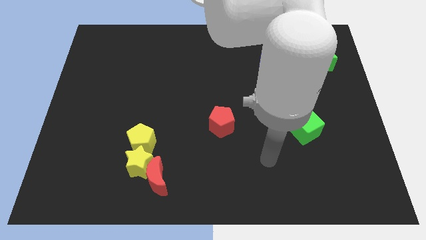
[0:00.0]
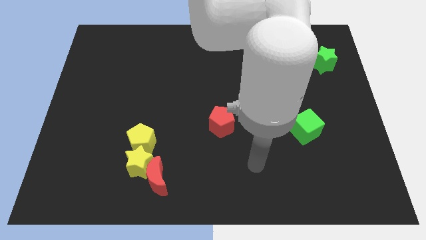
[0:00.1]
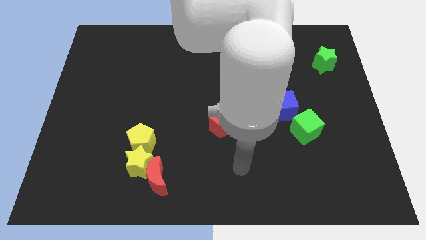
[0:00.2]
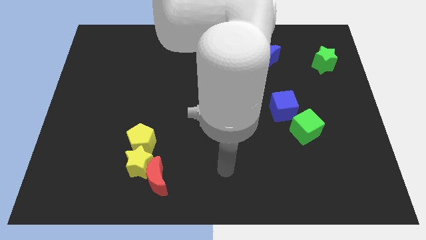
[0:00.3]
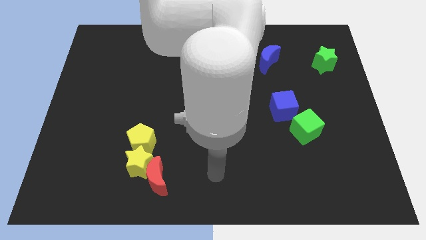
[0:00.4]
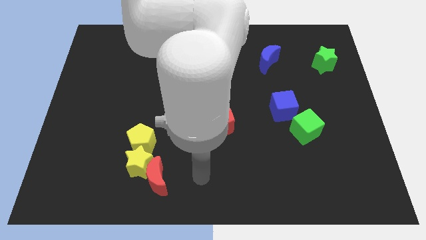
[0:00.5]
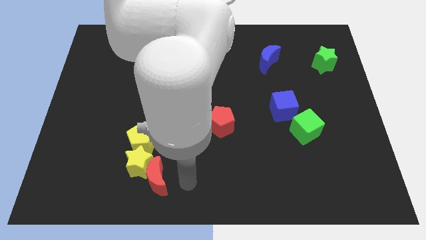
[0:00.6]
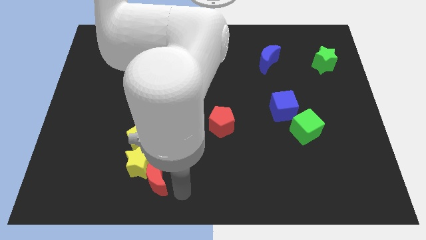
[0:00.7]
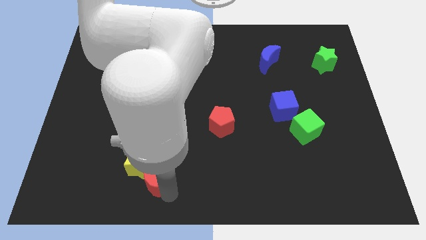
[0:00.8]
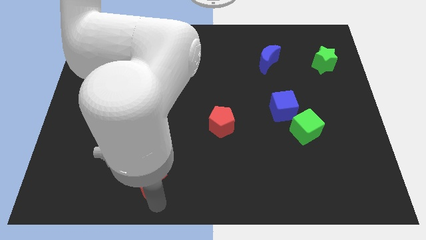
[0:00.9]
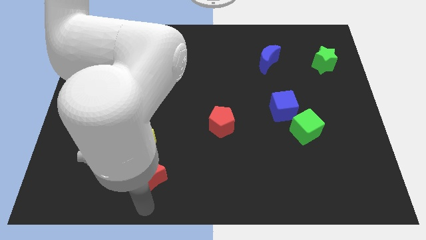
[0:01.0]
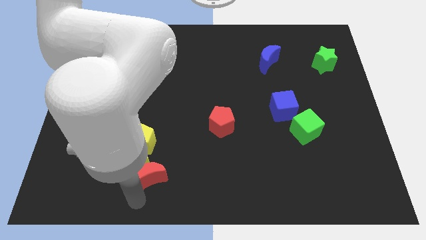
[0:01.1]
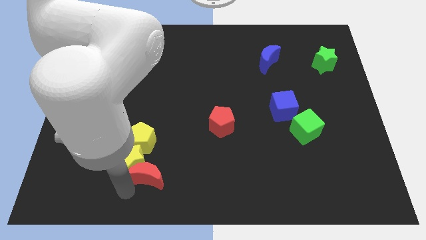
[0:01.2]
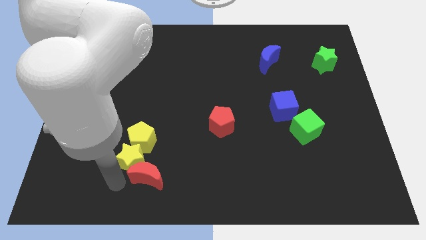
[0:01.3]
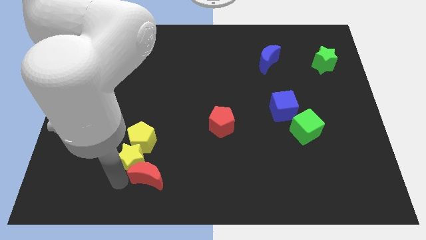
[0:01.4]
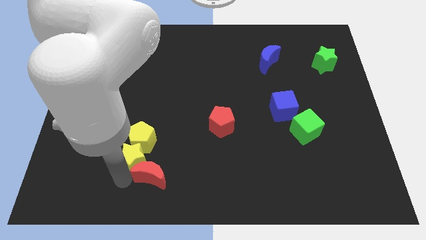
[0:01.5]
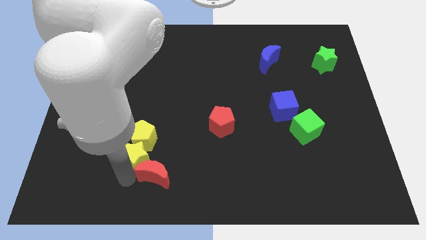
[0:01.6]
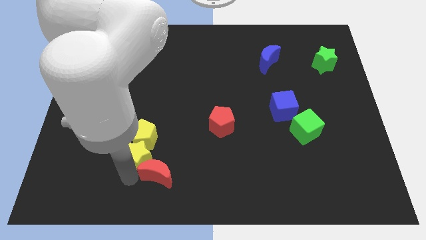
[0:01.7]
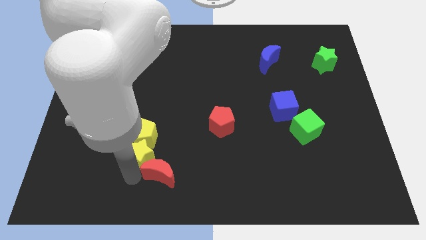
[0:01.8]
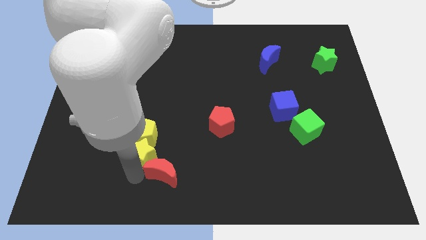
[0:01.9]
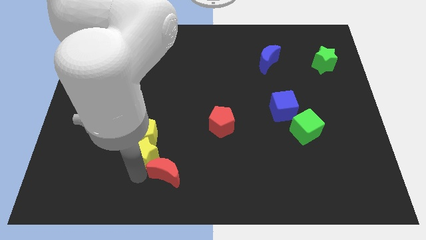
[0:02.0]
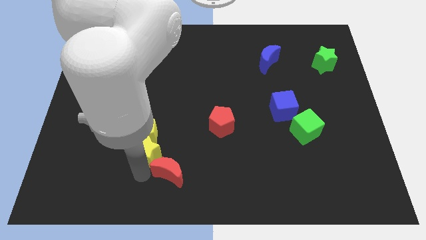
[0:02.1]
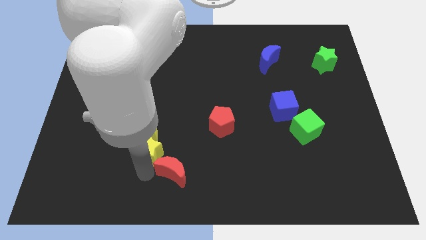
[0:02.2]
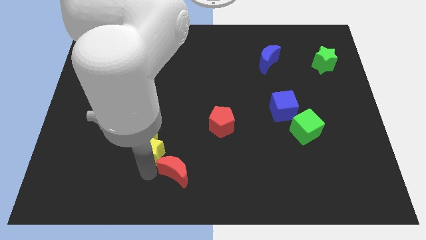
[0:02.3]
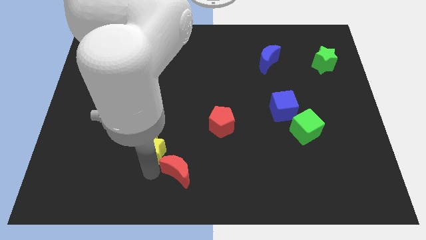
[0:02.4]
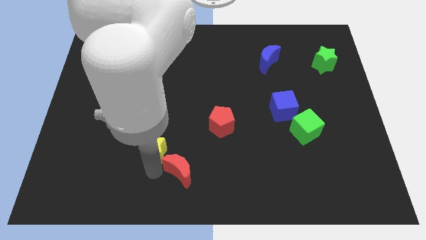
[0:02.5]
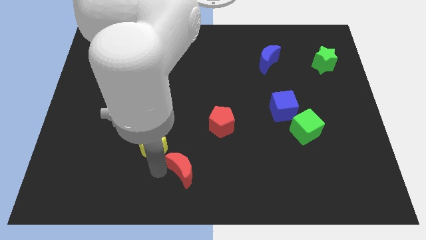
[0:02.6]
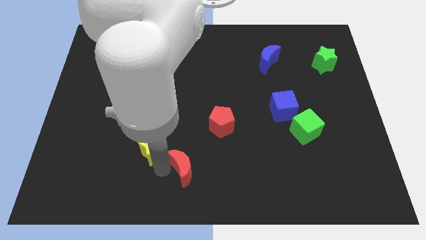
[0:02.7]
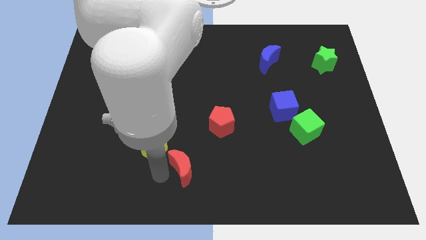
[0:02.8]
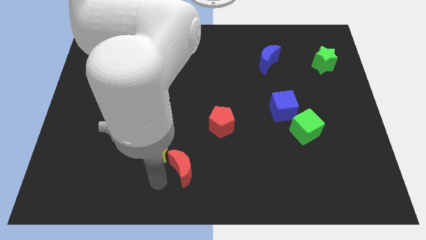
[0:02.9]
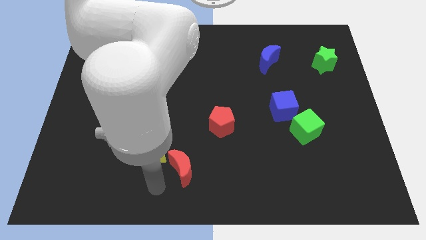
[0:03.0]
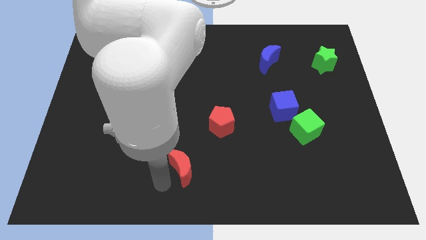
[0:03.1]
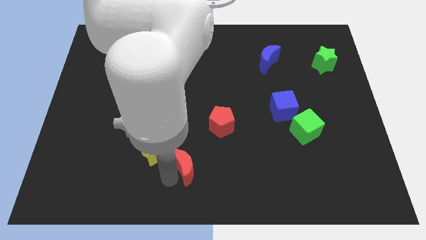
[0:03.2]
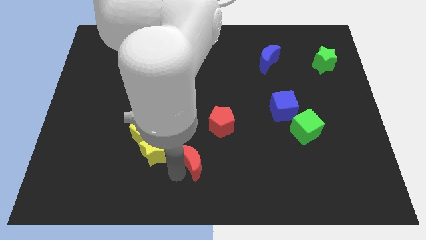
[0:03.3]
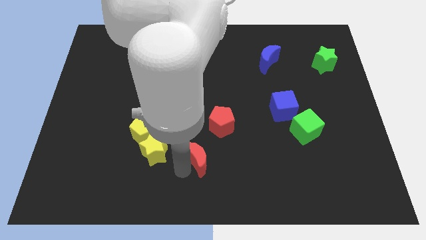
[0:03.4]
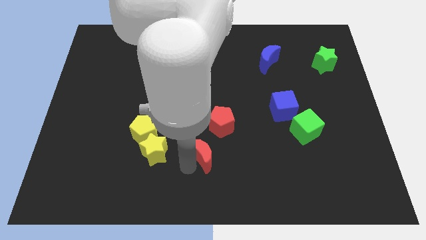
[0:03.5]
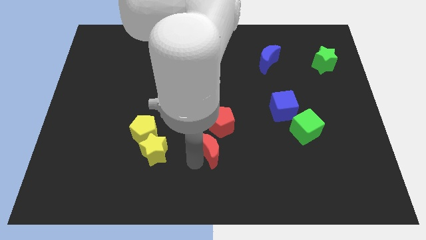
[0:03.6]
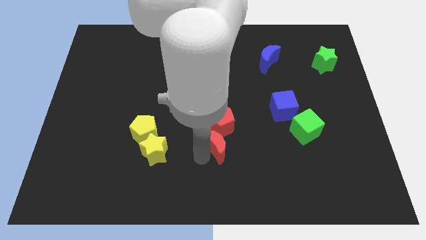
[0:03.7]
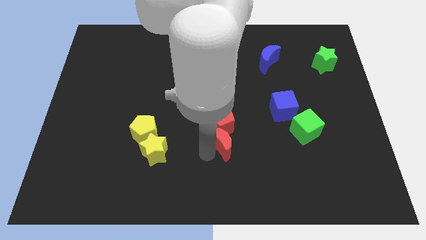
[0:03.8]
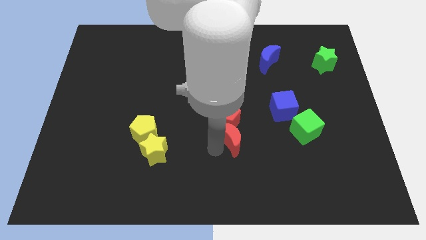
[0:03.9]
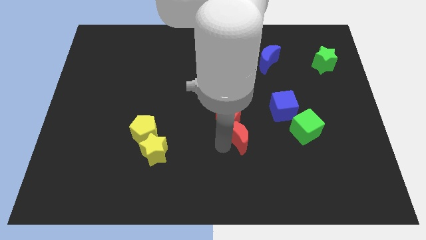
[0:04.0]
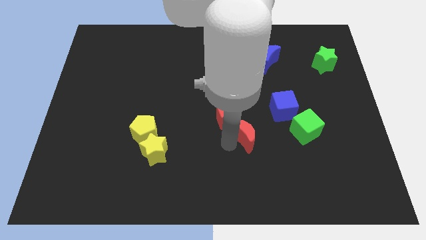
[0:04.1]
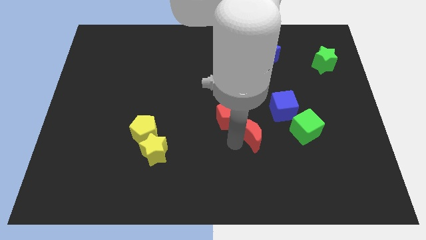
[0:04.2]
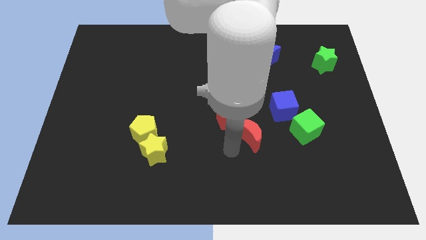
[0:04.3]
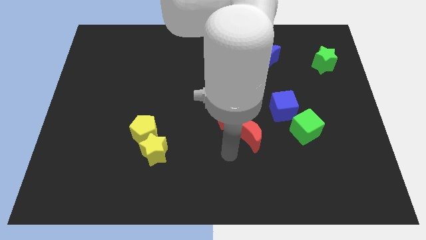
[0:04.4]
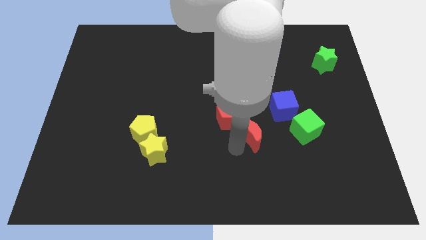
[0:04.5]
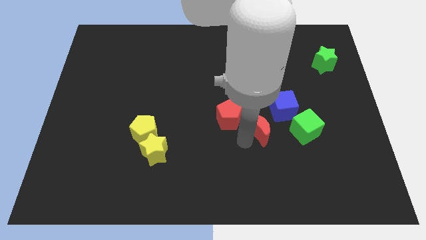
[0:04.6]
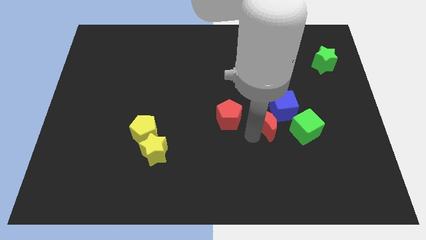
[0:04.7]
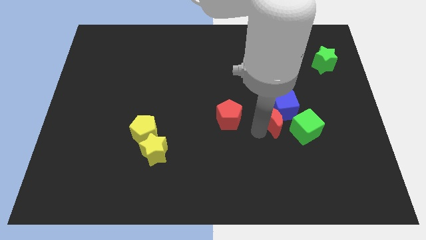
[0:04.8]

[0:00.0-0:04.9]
put the red moon to the blue cube

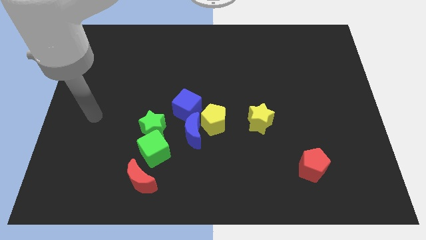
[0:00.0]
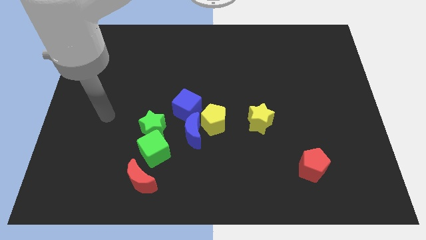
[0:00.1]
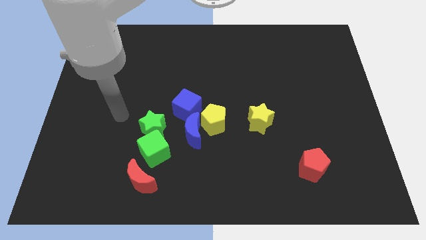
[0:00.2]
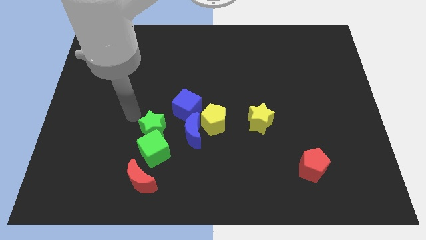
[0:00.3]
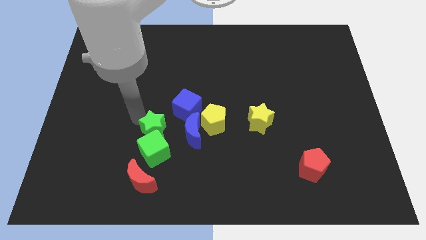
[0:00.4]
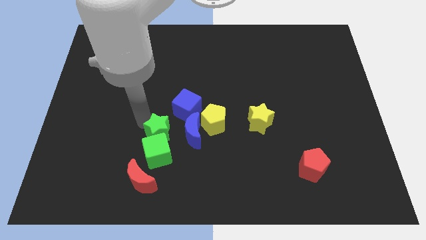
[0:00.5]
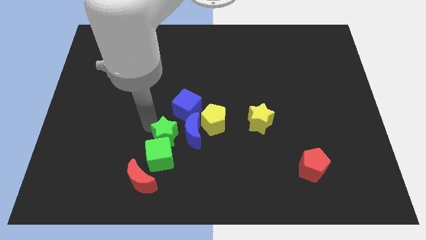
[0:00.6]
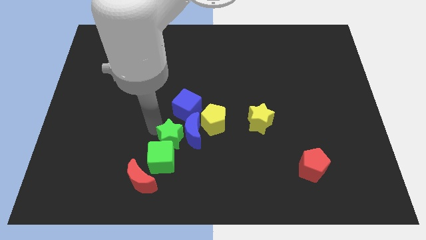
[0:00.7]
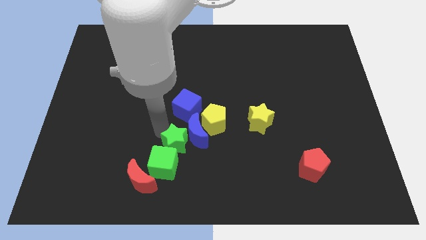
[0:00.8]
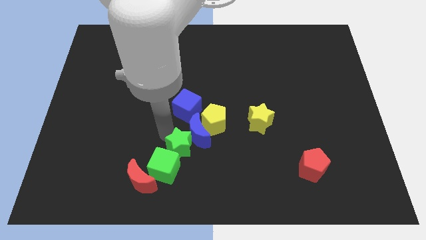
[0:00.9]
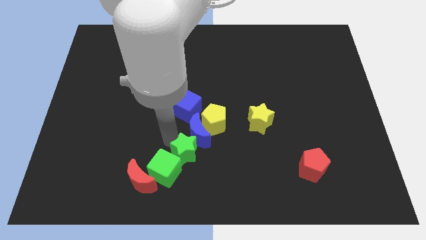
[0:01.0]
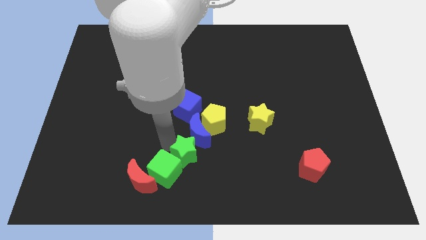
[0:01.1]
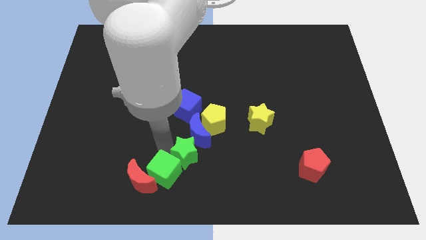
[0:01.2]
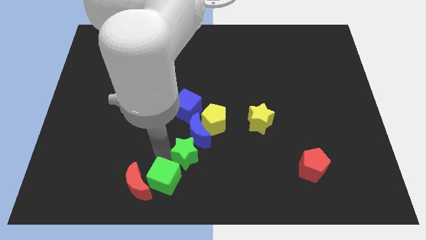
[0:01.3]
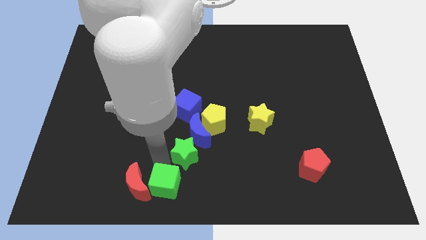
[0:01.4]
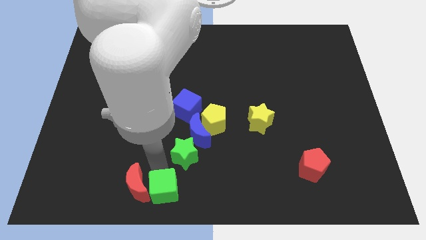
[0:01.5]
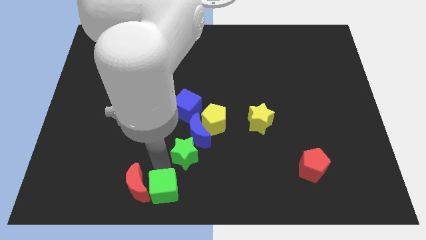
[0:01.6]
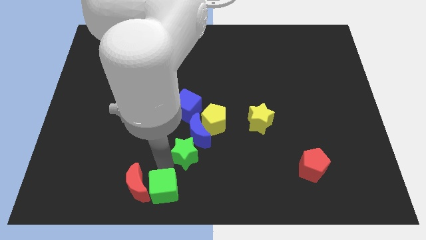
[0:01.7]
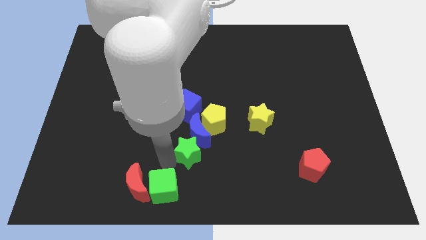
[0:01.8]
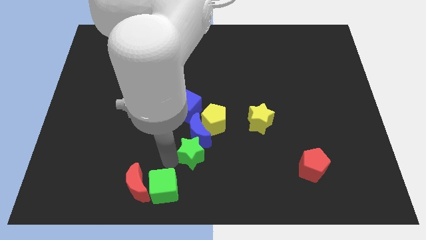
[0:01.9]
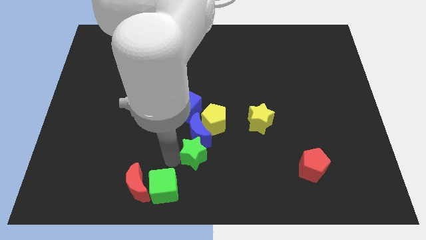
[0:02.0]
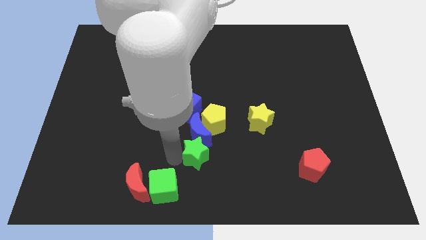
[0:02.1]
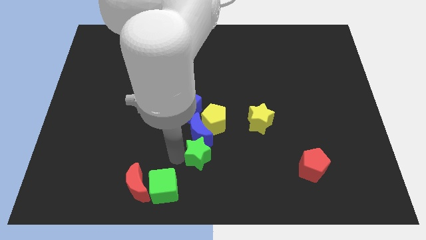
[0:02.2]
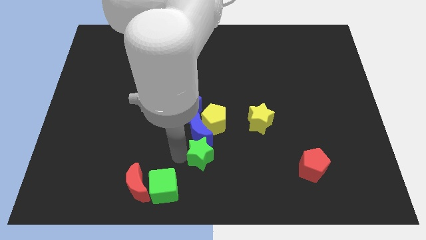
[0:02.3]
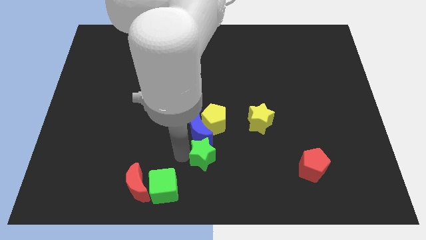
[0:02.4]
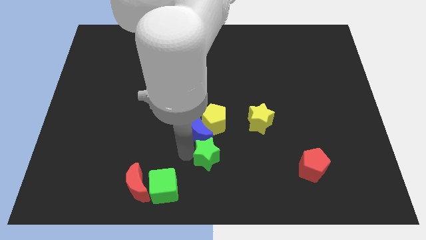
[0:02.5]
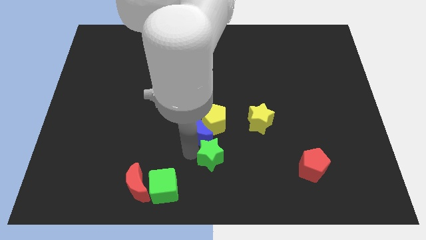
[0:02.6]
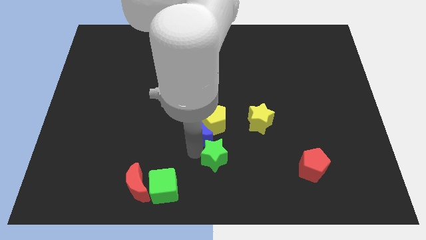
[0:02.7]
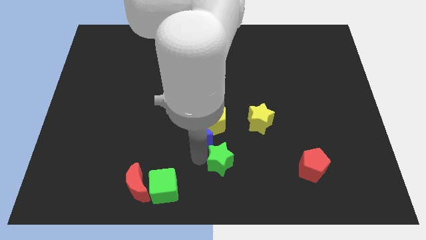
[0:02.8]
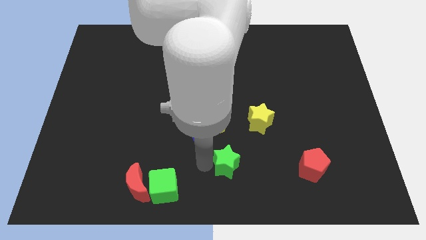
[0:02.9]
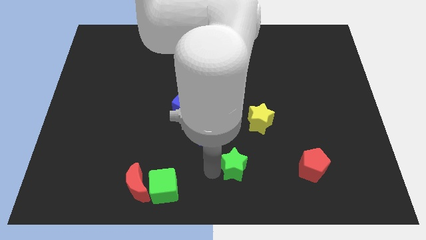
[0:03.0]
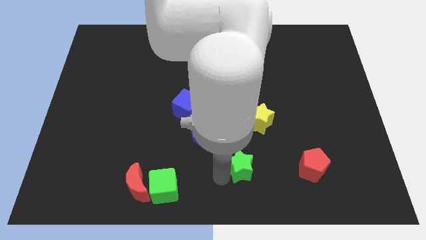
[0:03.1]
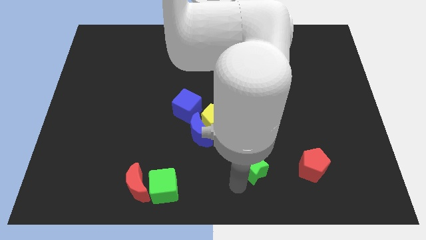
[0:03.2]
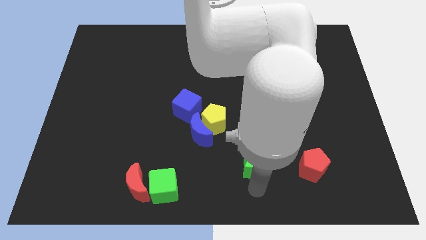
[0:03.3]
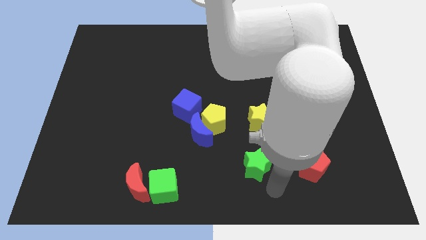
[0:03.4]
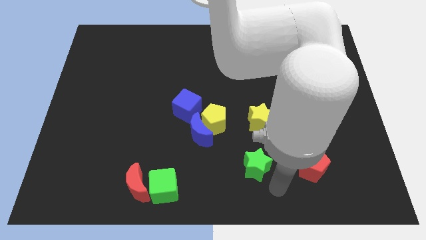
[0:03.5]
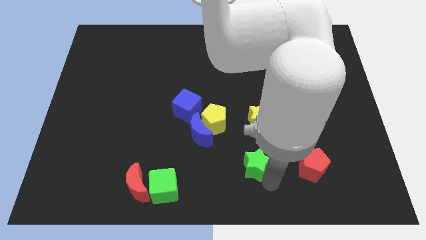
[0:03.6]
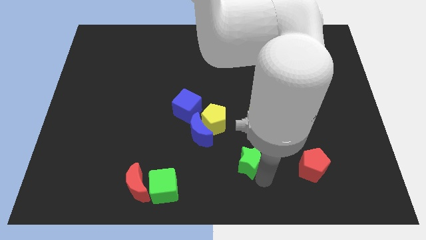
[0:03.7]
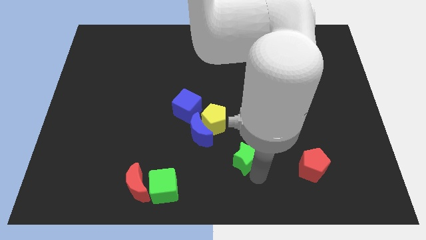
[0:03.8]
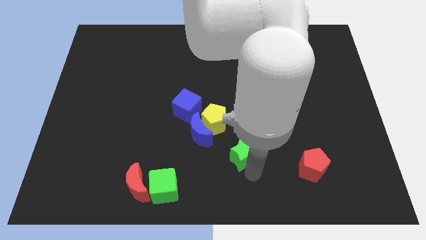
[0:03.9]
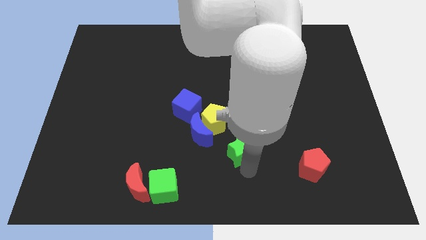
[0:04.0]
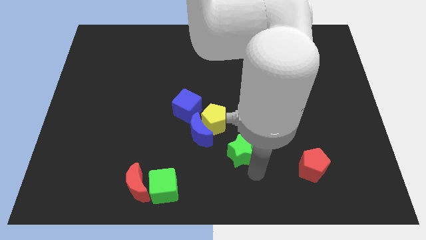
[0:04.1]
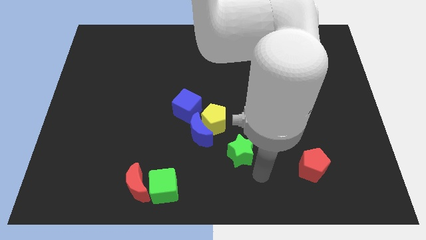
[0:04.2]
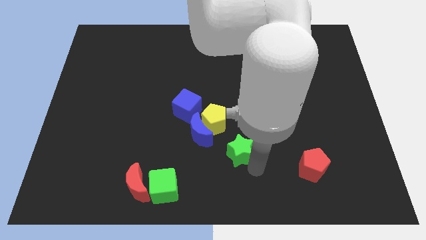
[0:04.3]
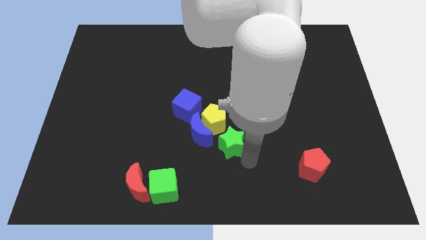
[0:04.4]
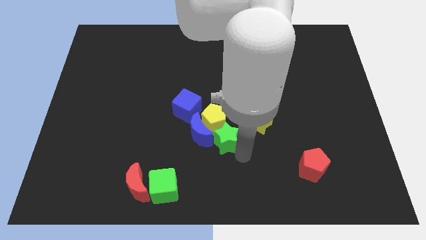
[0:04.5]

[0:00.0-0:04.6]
put the green star towards the yellow pentagon
